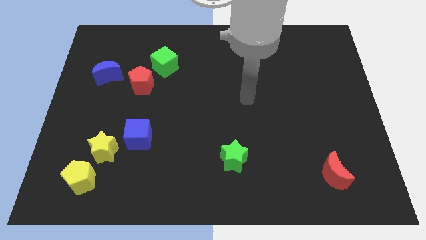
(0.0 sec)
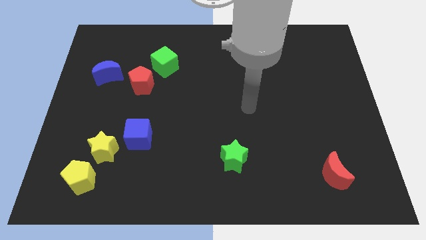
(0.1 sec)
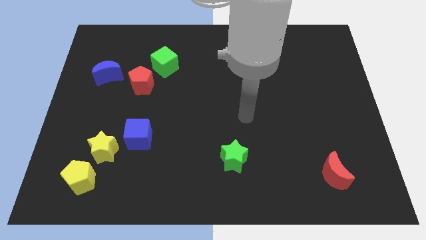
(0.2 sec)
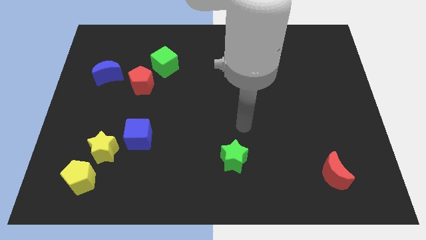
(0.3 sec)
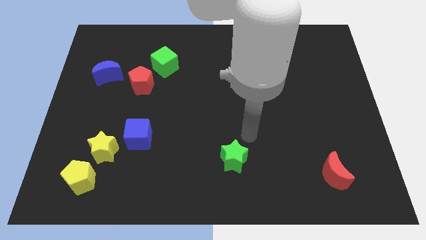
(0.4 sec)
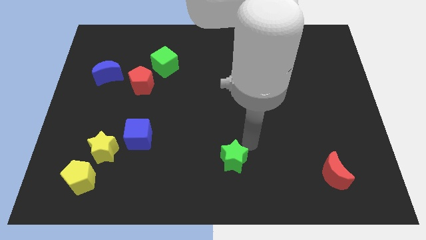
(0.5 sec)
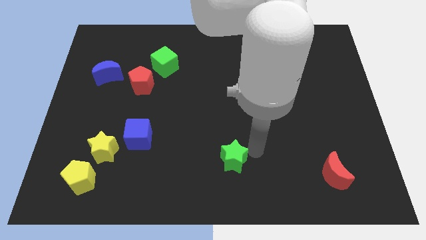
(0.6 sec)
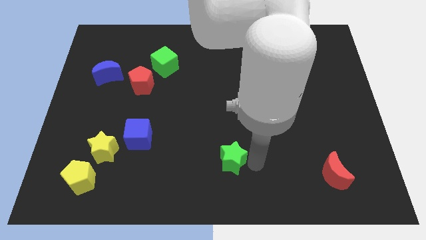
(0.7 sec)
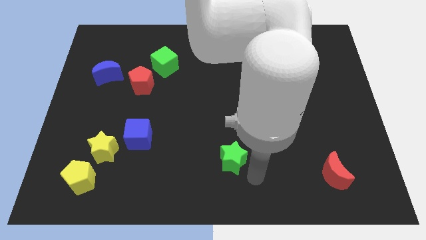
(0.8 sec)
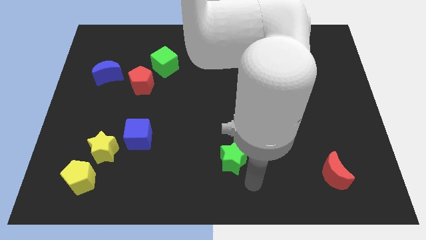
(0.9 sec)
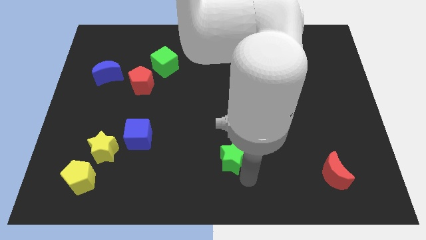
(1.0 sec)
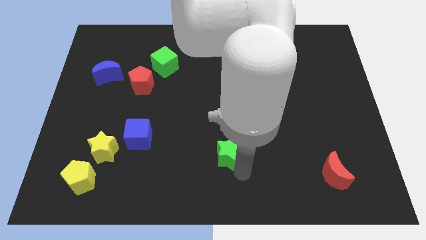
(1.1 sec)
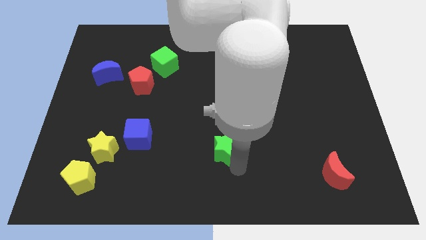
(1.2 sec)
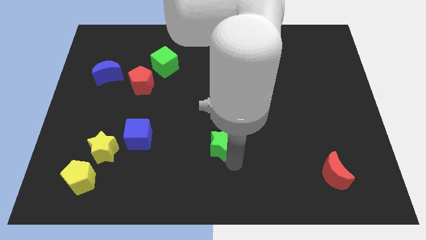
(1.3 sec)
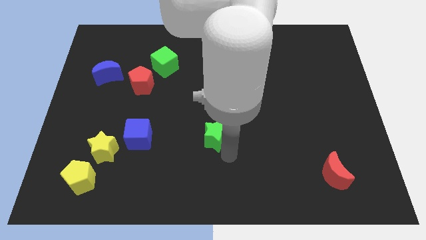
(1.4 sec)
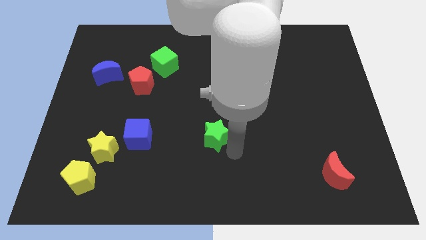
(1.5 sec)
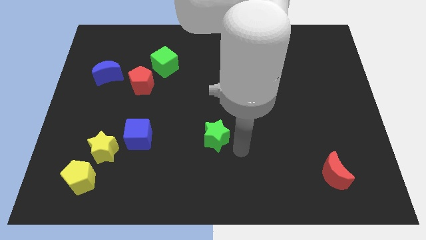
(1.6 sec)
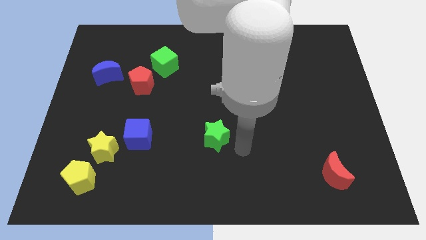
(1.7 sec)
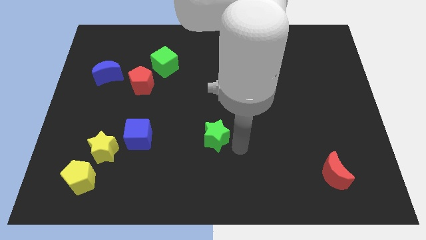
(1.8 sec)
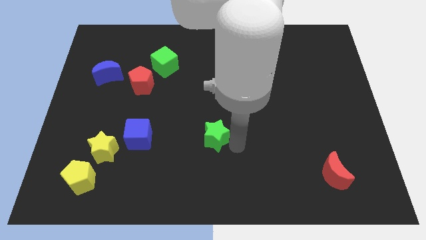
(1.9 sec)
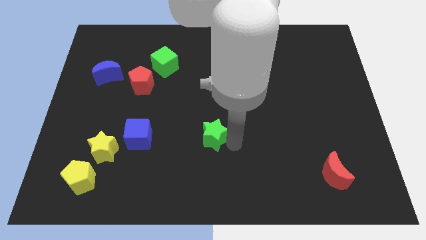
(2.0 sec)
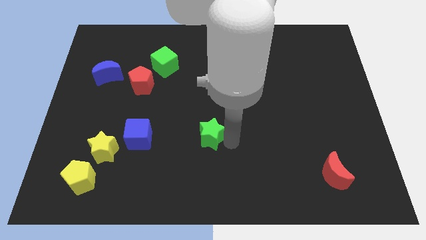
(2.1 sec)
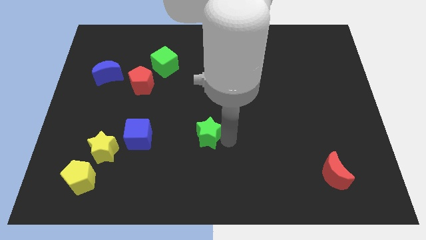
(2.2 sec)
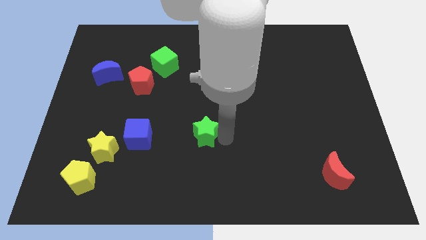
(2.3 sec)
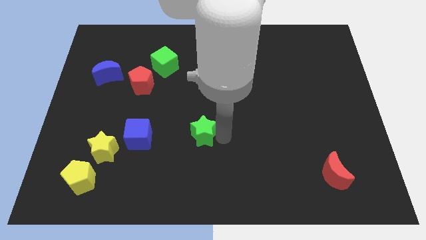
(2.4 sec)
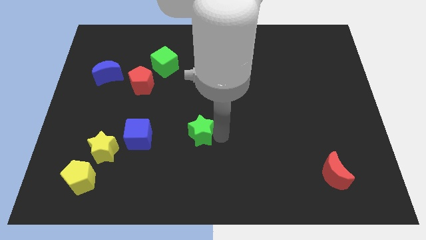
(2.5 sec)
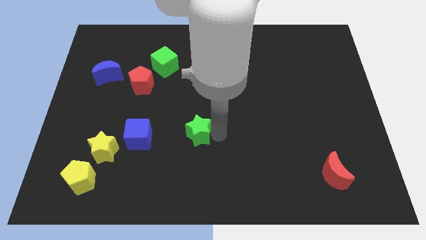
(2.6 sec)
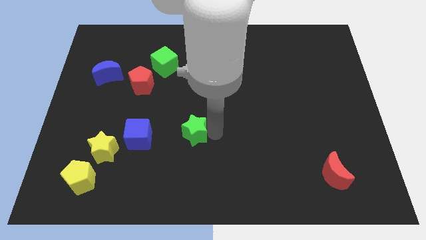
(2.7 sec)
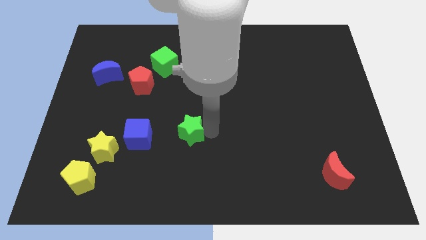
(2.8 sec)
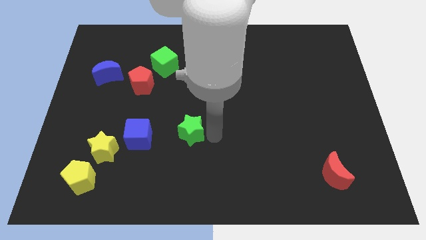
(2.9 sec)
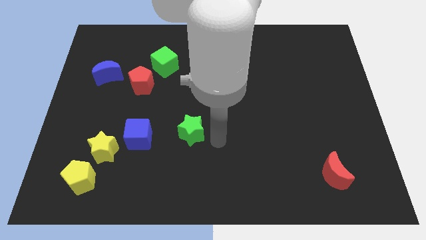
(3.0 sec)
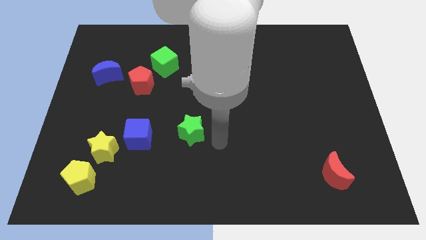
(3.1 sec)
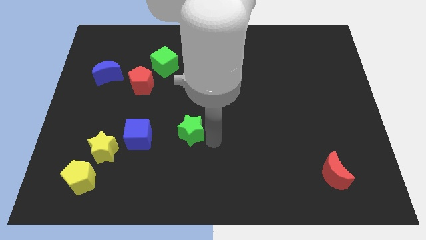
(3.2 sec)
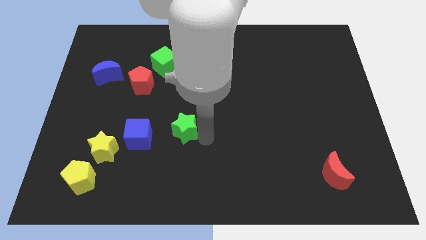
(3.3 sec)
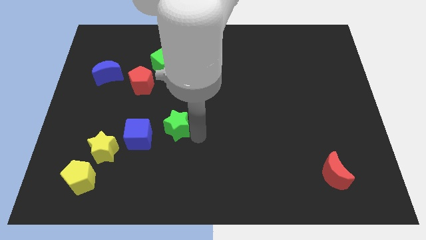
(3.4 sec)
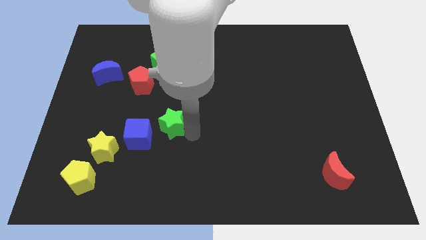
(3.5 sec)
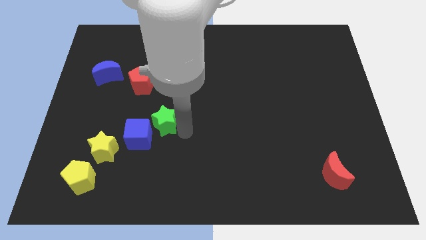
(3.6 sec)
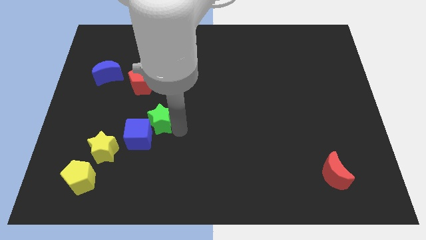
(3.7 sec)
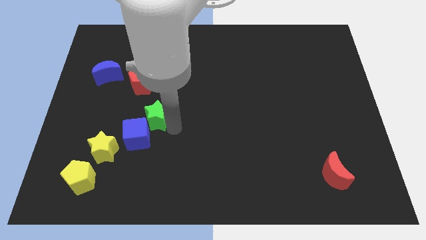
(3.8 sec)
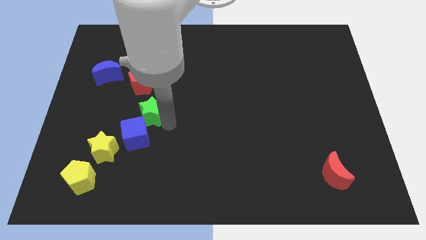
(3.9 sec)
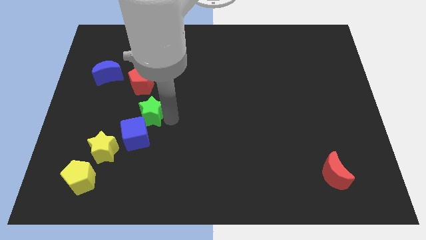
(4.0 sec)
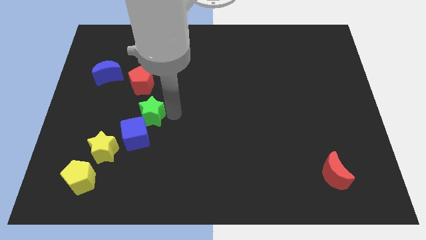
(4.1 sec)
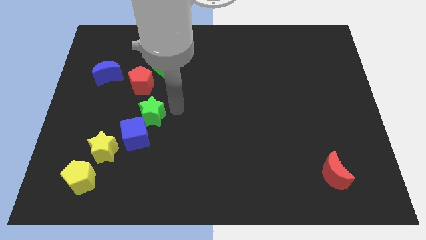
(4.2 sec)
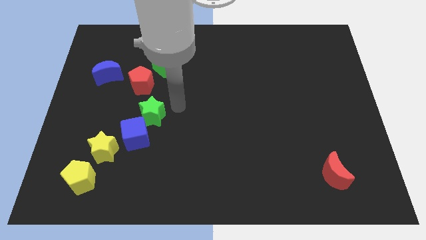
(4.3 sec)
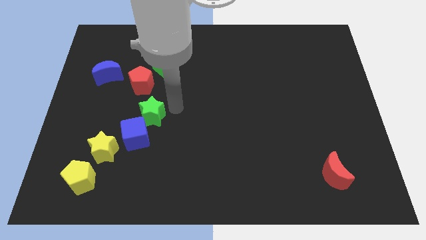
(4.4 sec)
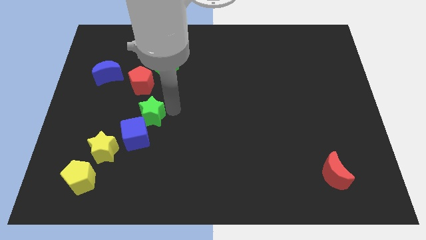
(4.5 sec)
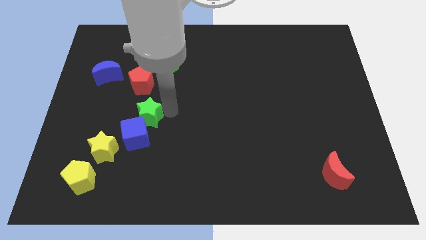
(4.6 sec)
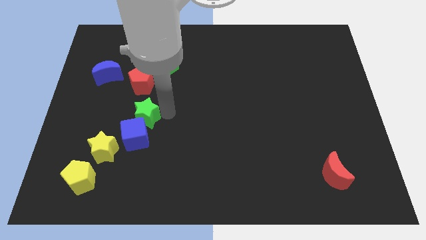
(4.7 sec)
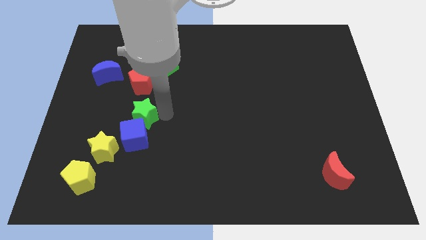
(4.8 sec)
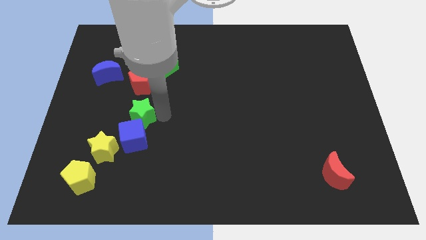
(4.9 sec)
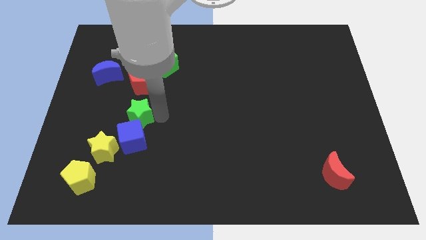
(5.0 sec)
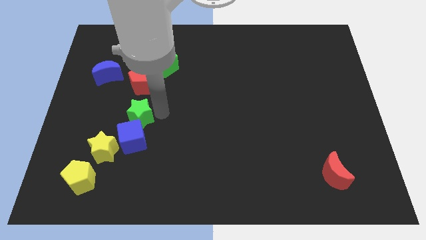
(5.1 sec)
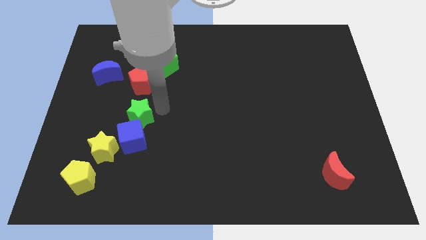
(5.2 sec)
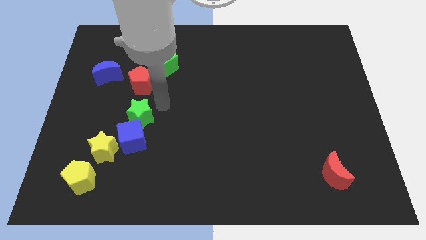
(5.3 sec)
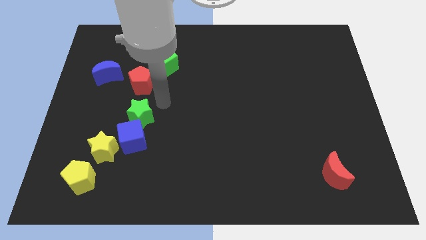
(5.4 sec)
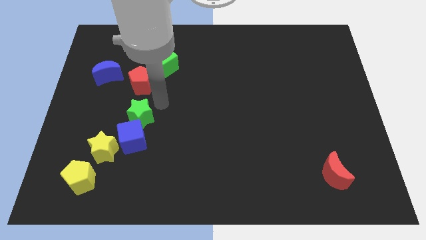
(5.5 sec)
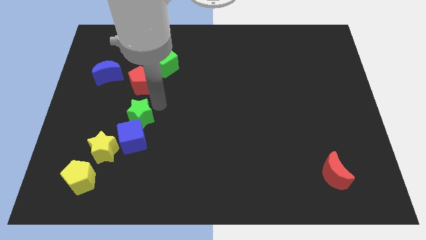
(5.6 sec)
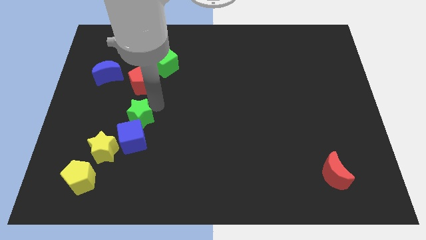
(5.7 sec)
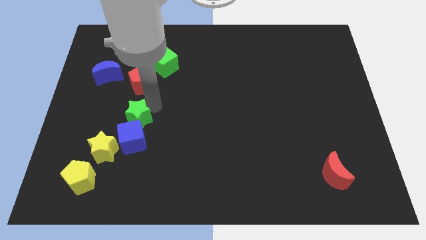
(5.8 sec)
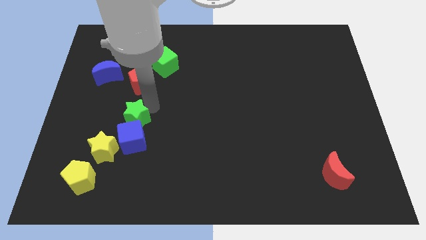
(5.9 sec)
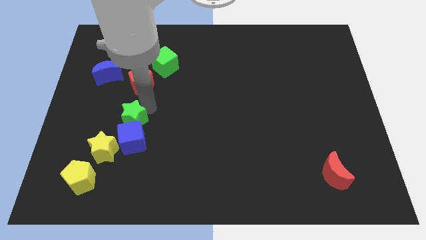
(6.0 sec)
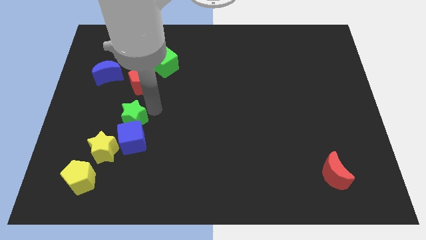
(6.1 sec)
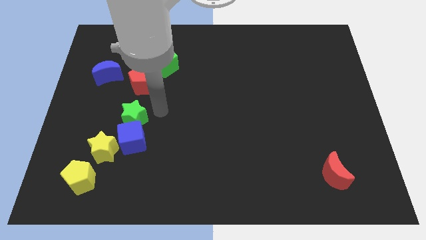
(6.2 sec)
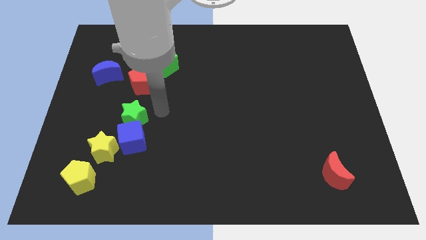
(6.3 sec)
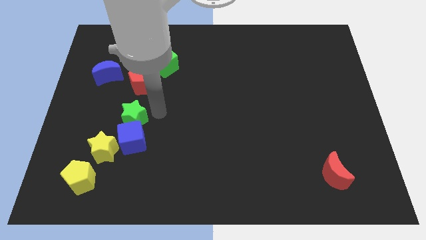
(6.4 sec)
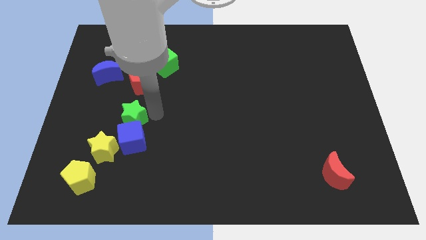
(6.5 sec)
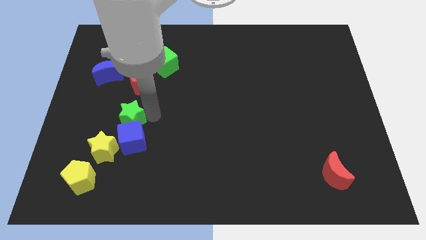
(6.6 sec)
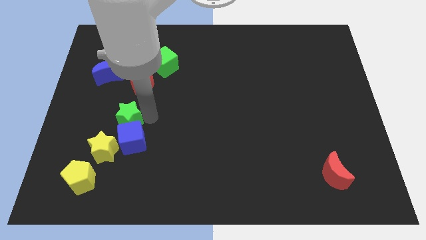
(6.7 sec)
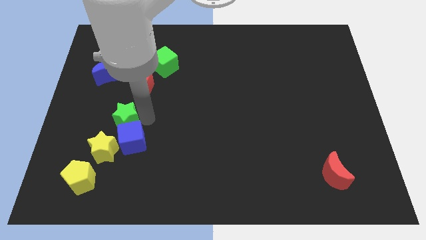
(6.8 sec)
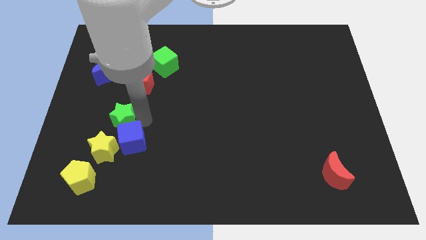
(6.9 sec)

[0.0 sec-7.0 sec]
push the green star to the left

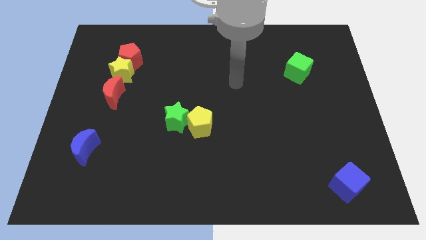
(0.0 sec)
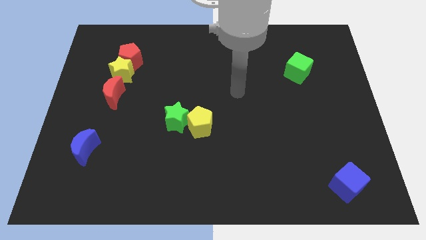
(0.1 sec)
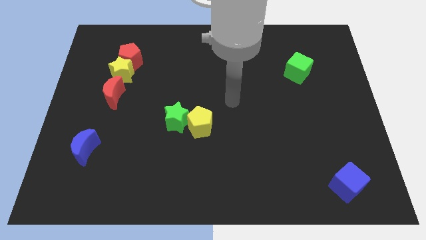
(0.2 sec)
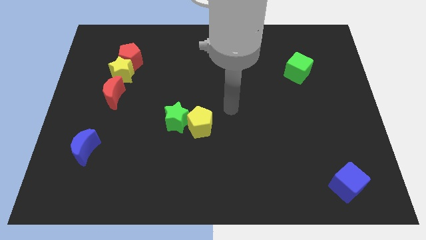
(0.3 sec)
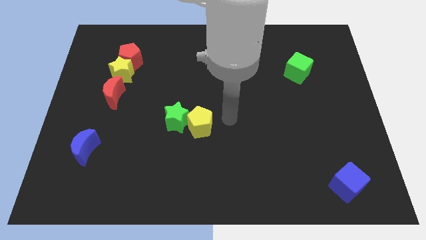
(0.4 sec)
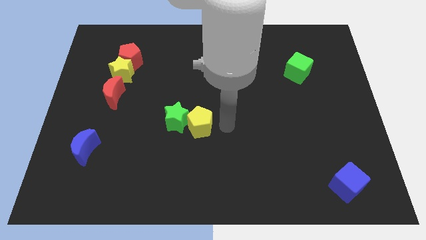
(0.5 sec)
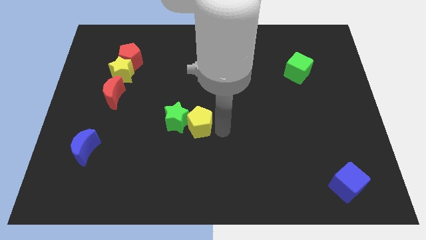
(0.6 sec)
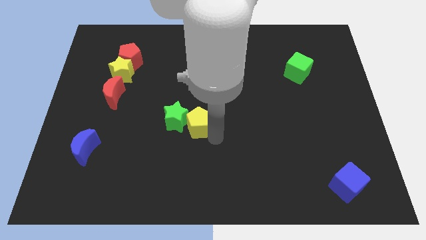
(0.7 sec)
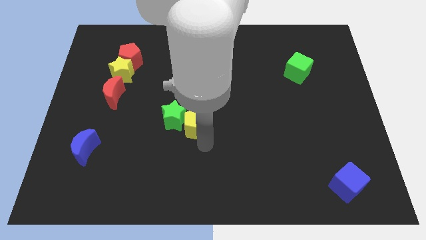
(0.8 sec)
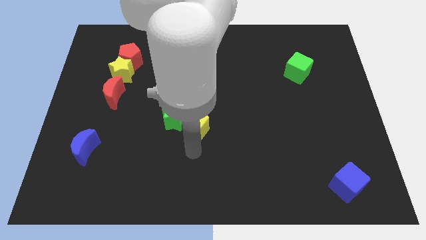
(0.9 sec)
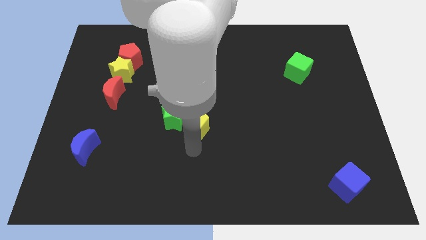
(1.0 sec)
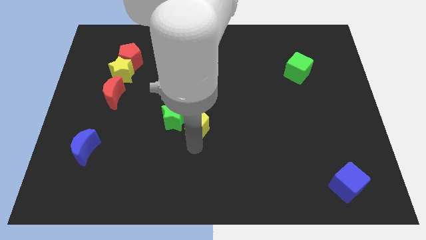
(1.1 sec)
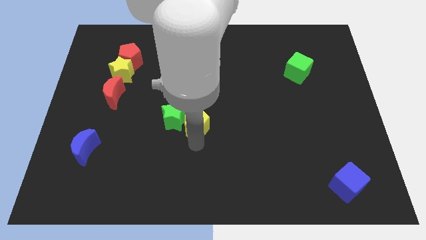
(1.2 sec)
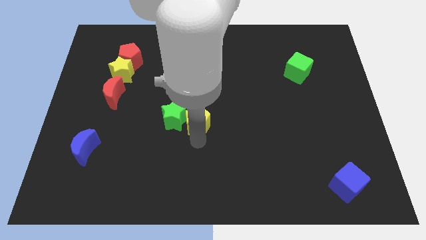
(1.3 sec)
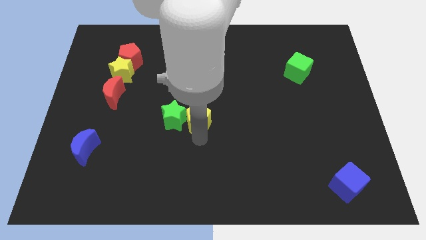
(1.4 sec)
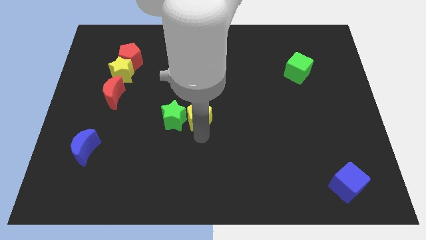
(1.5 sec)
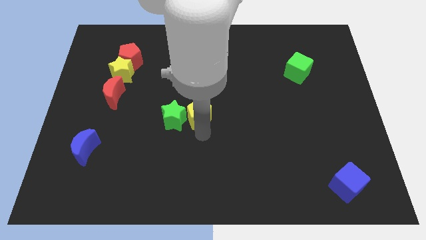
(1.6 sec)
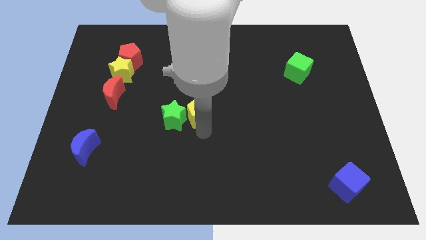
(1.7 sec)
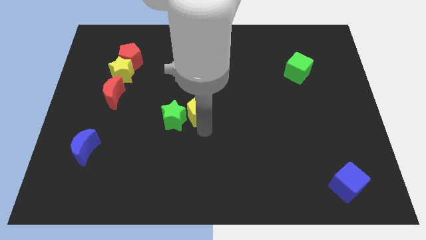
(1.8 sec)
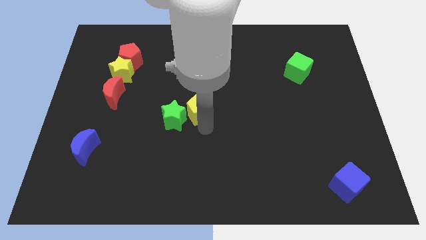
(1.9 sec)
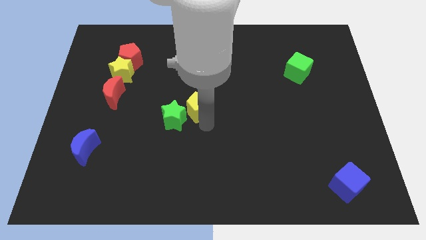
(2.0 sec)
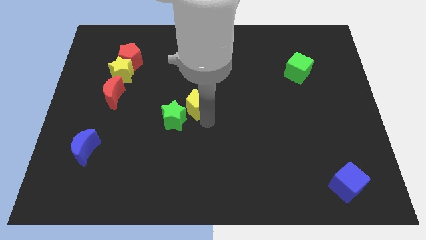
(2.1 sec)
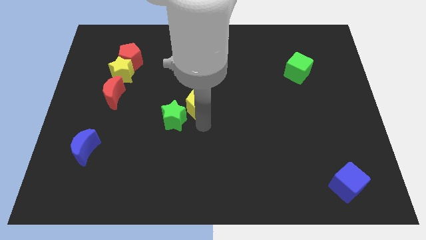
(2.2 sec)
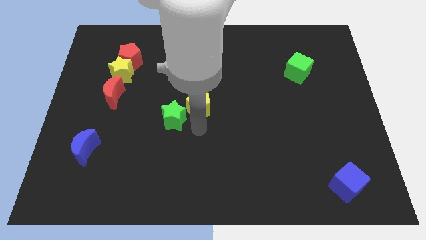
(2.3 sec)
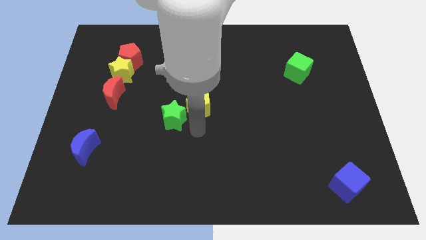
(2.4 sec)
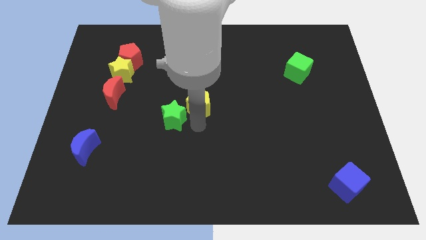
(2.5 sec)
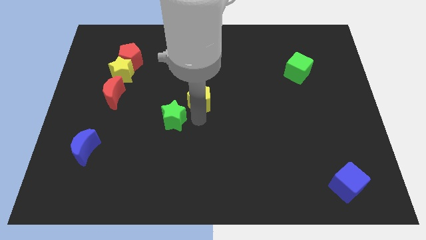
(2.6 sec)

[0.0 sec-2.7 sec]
slide the yellow pentagon upwards somewhat
